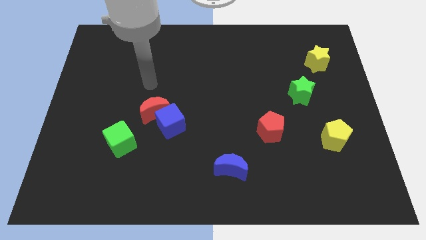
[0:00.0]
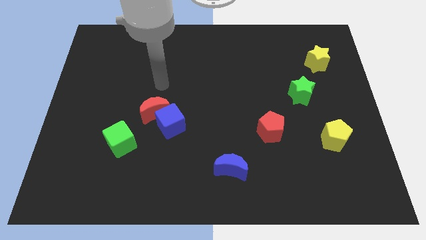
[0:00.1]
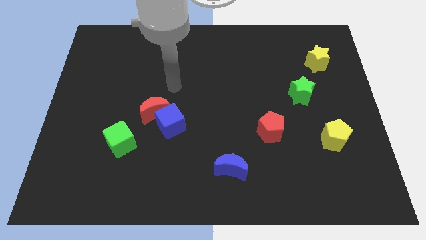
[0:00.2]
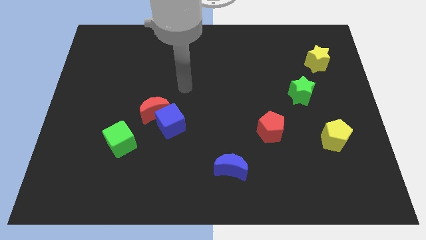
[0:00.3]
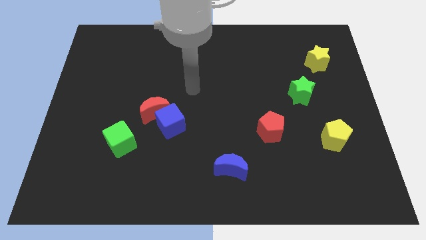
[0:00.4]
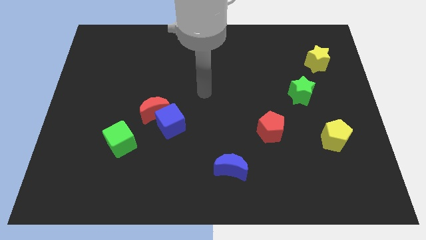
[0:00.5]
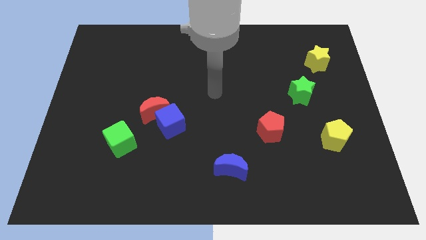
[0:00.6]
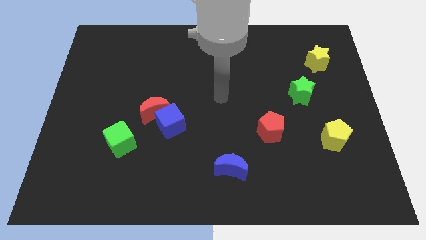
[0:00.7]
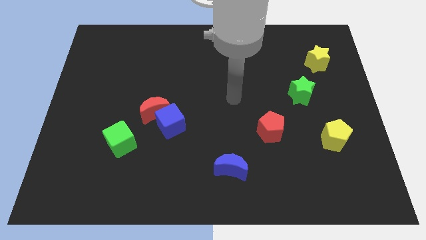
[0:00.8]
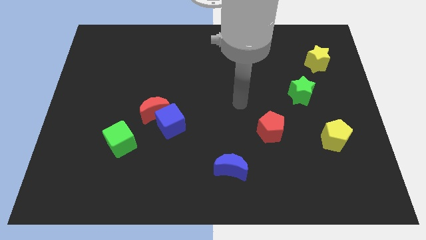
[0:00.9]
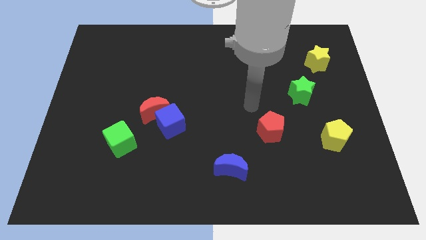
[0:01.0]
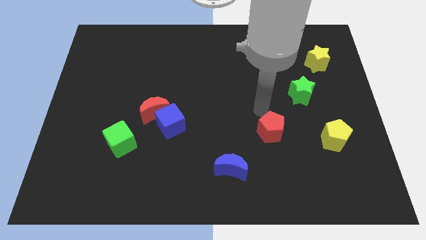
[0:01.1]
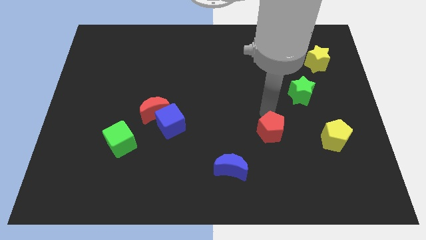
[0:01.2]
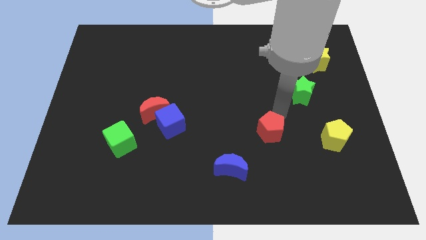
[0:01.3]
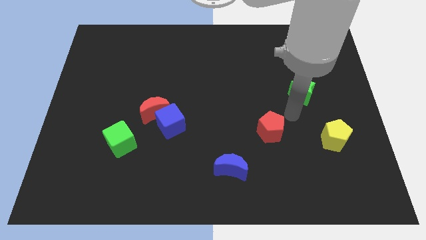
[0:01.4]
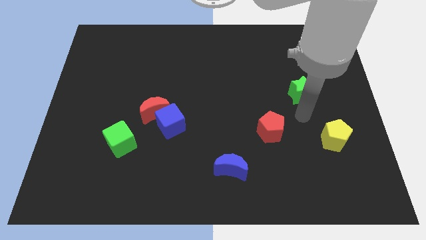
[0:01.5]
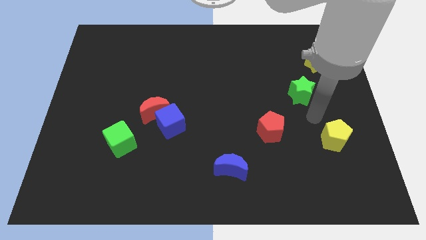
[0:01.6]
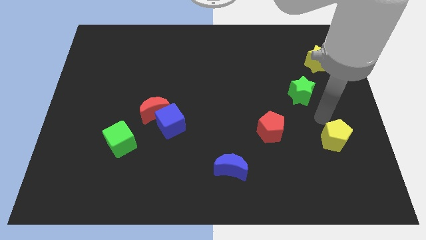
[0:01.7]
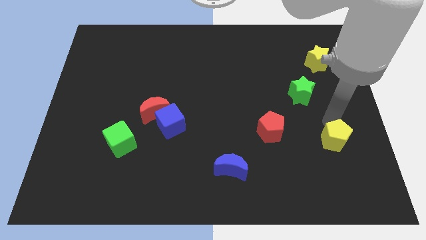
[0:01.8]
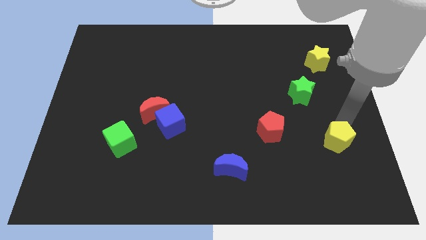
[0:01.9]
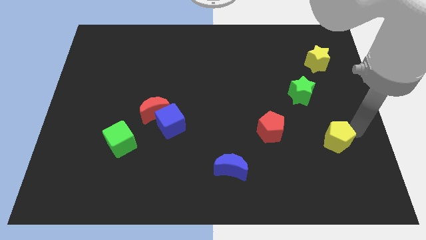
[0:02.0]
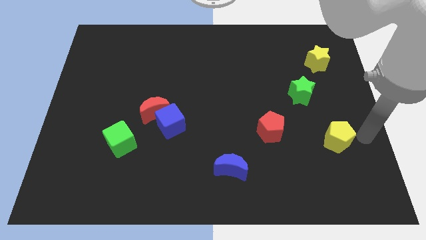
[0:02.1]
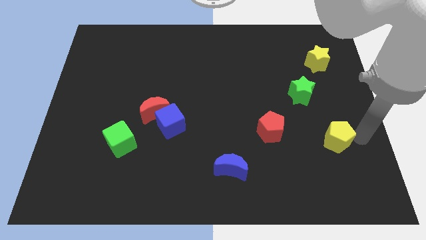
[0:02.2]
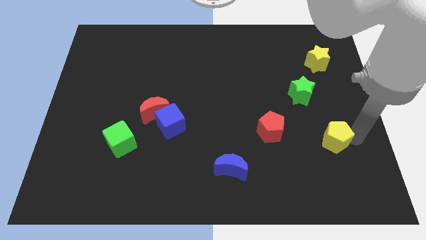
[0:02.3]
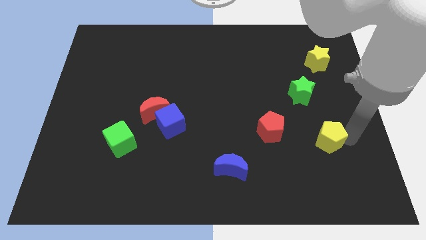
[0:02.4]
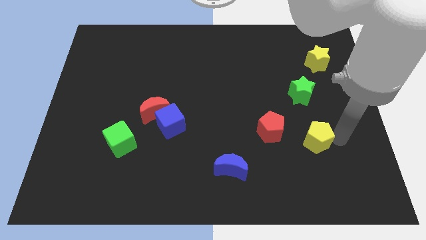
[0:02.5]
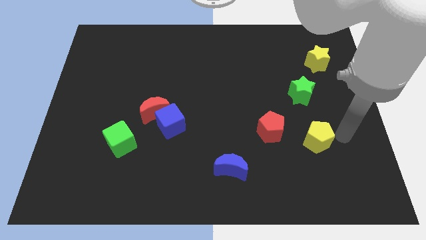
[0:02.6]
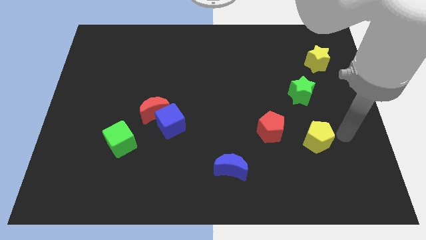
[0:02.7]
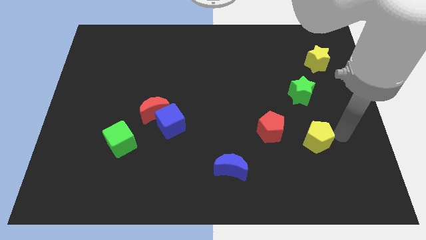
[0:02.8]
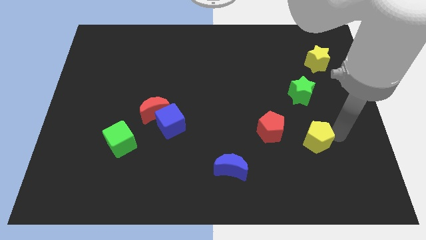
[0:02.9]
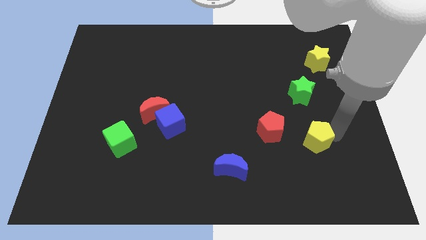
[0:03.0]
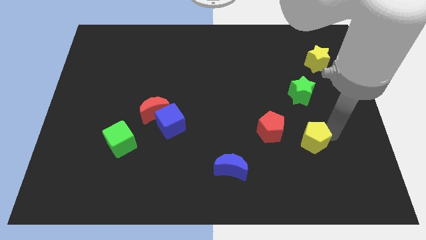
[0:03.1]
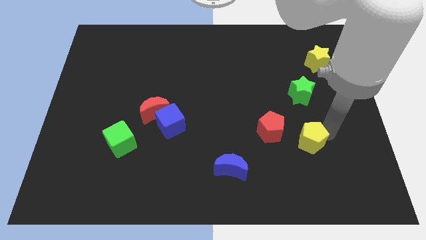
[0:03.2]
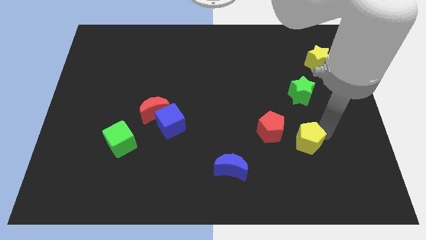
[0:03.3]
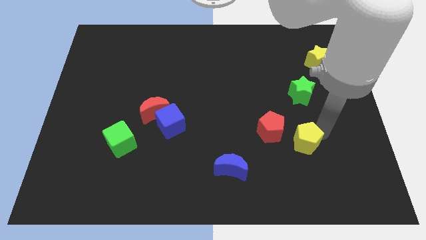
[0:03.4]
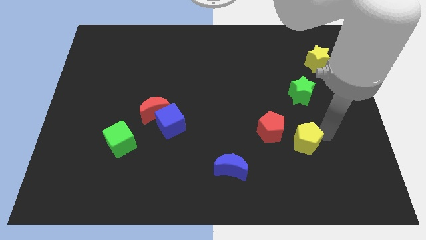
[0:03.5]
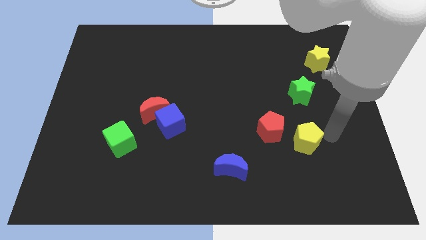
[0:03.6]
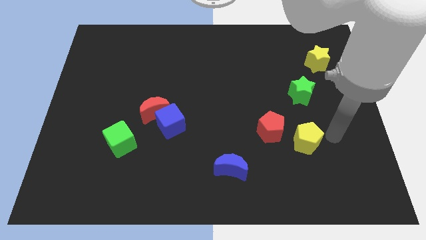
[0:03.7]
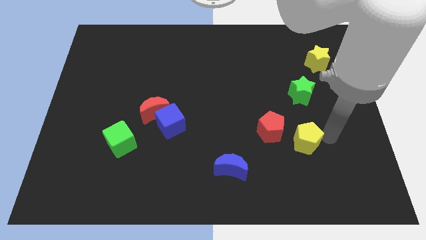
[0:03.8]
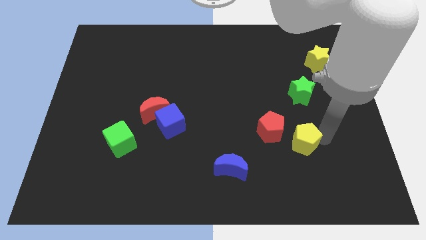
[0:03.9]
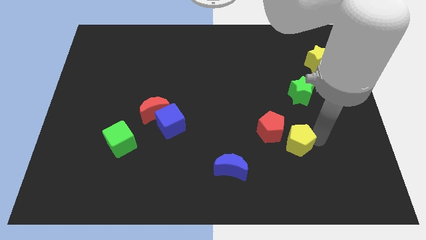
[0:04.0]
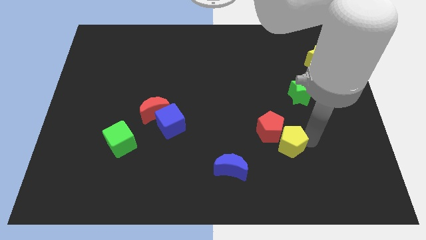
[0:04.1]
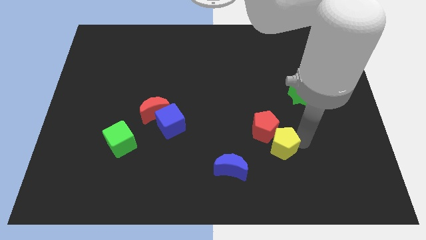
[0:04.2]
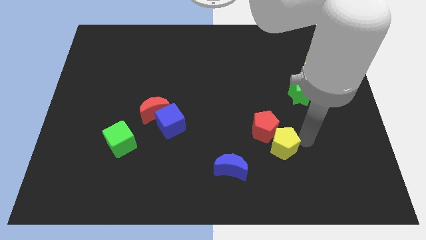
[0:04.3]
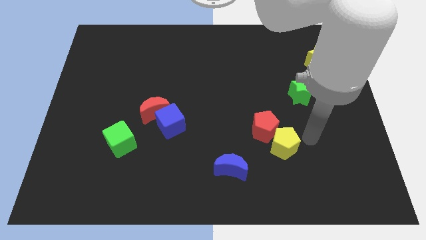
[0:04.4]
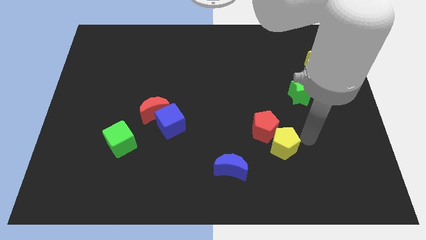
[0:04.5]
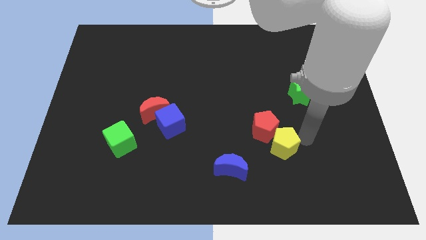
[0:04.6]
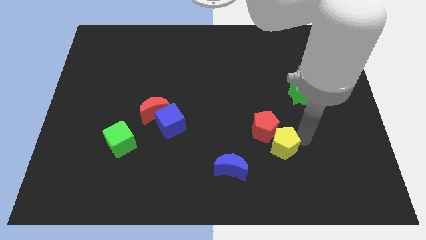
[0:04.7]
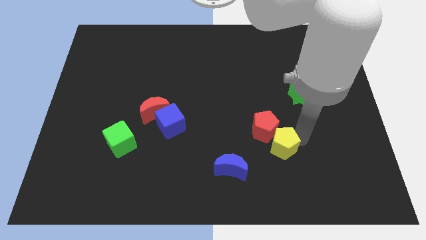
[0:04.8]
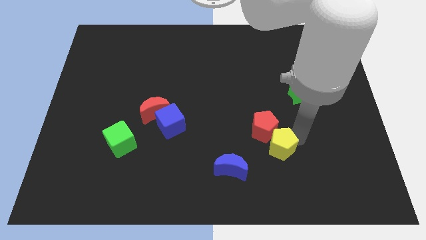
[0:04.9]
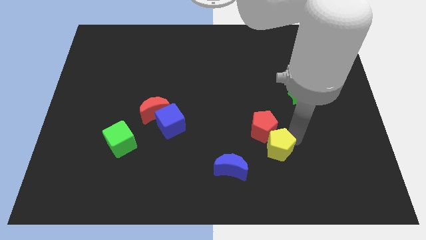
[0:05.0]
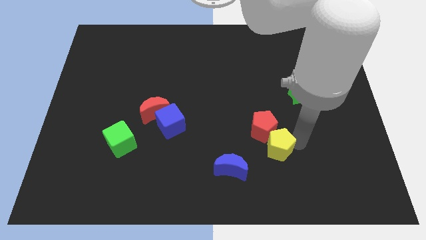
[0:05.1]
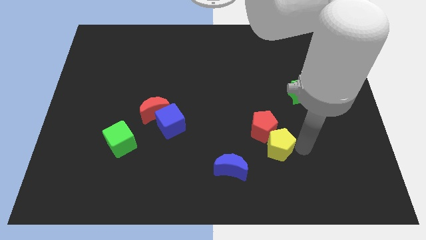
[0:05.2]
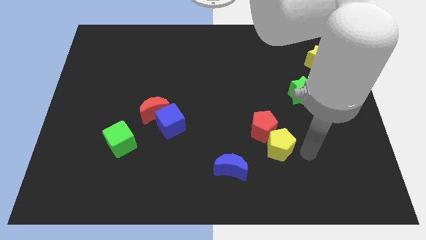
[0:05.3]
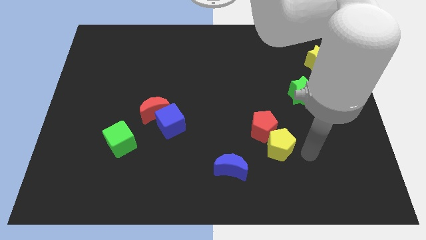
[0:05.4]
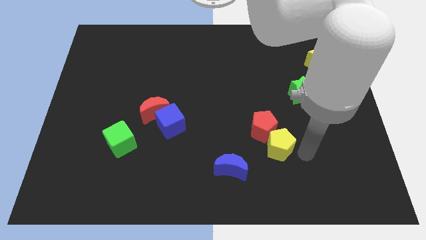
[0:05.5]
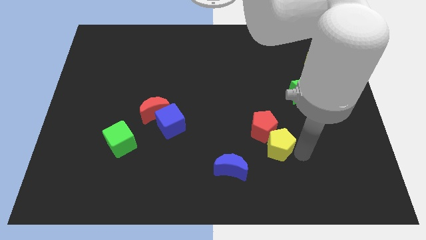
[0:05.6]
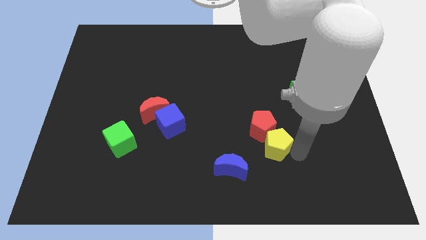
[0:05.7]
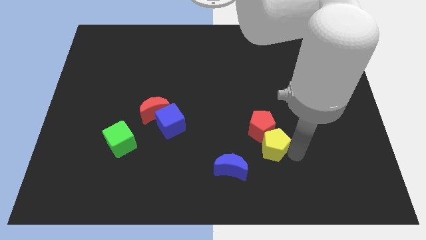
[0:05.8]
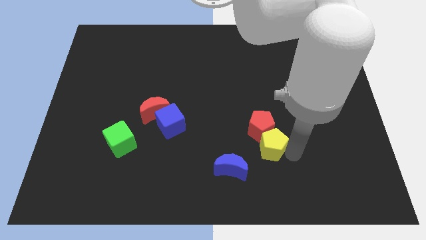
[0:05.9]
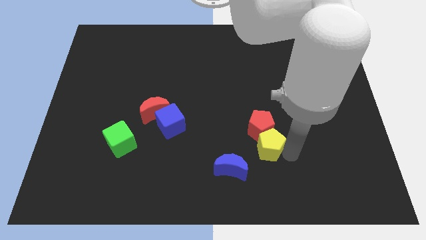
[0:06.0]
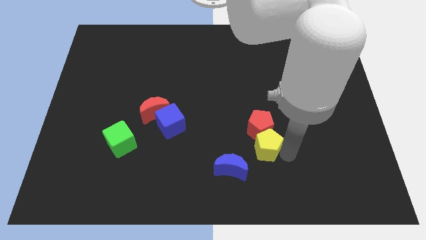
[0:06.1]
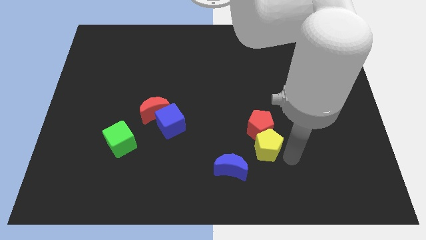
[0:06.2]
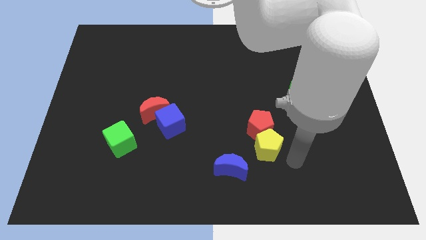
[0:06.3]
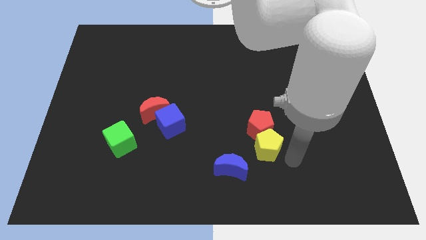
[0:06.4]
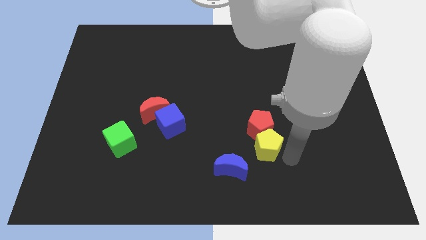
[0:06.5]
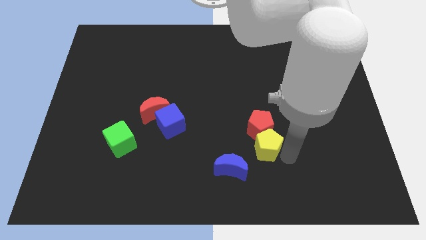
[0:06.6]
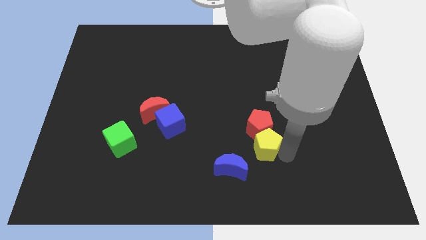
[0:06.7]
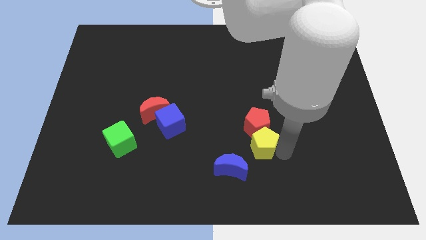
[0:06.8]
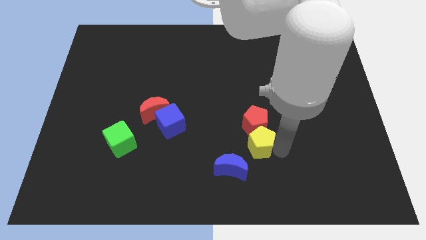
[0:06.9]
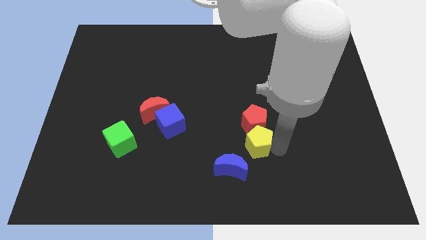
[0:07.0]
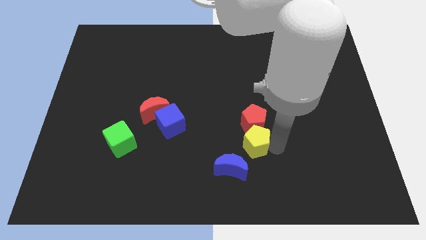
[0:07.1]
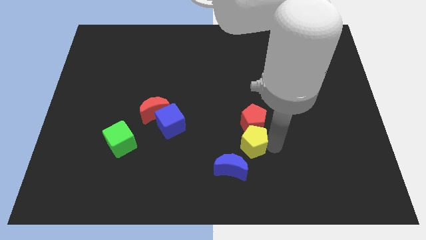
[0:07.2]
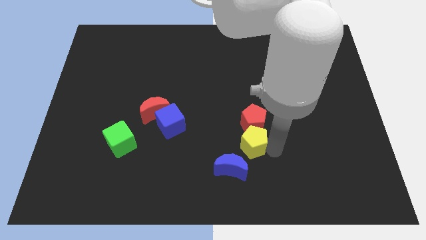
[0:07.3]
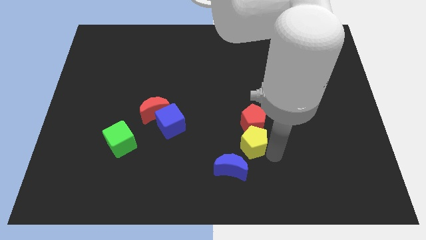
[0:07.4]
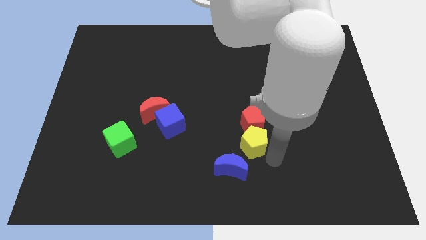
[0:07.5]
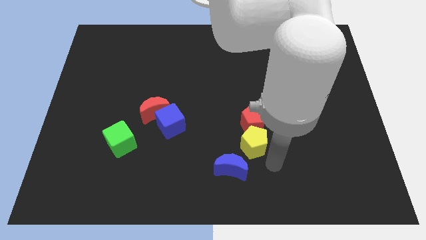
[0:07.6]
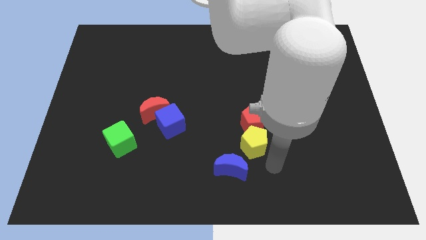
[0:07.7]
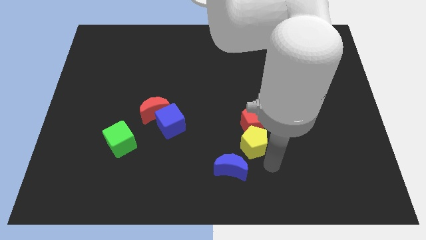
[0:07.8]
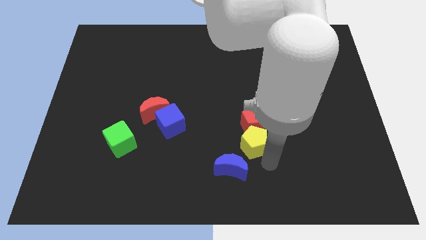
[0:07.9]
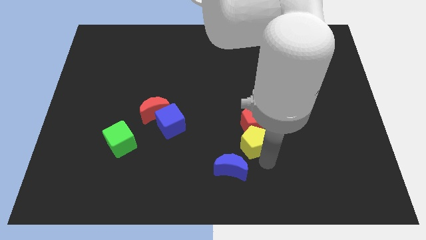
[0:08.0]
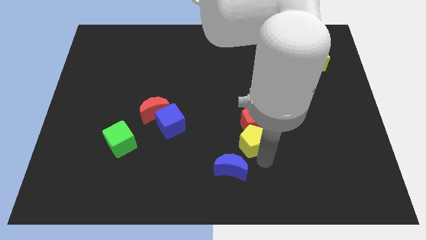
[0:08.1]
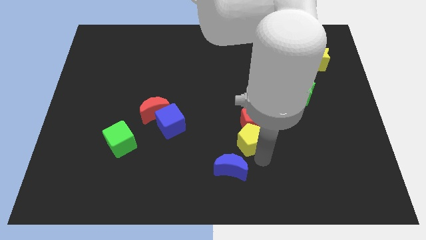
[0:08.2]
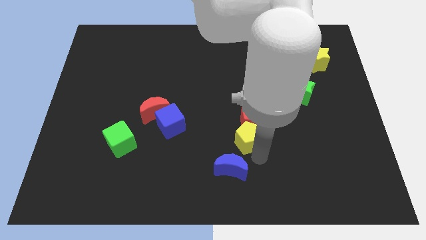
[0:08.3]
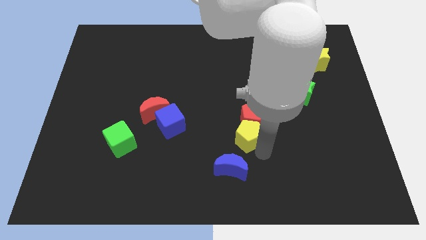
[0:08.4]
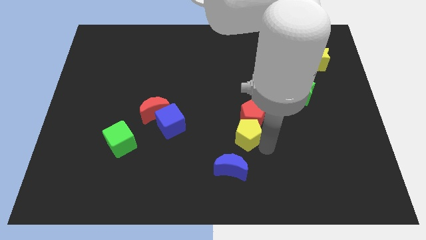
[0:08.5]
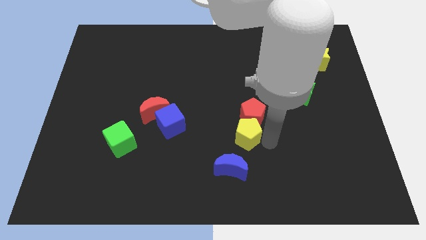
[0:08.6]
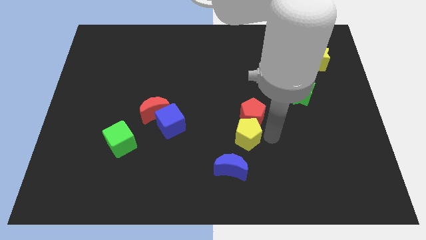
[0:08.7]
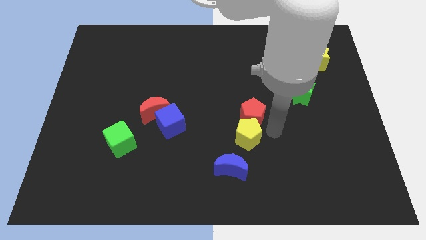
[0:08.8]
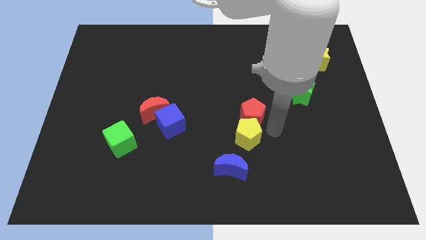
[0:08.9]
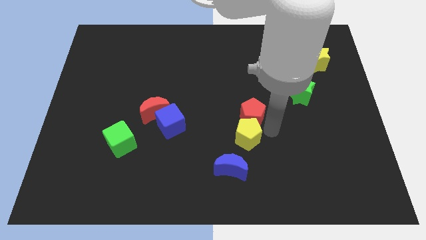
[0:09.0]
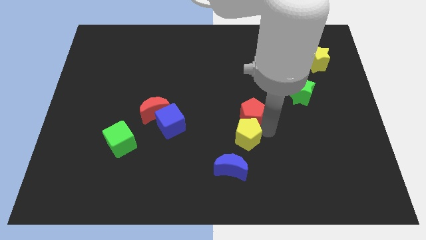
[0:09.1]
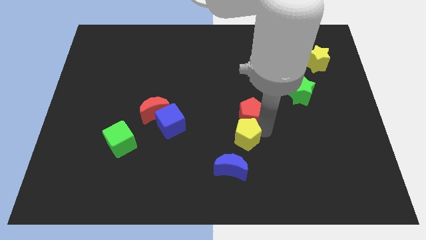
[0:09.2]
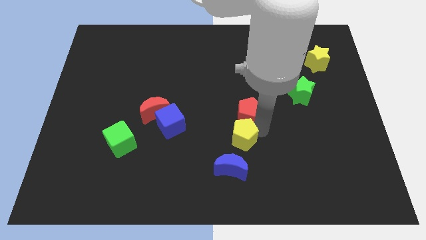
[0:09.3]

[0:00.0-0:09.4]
move the yellow pentagon left
